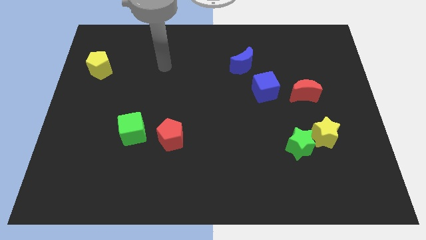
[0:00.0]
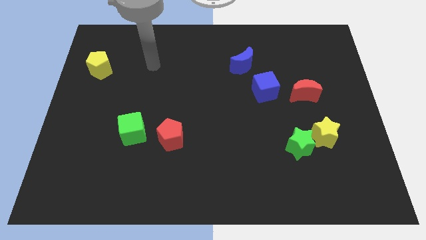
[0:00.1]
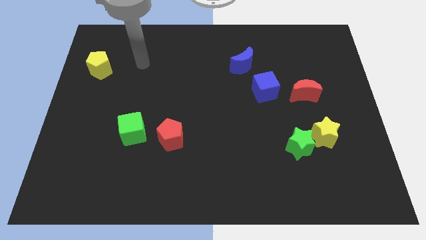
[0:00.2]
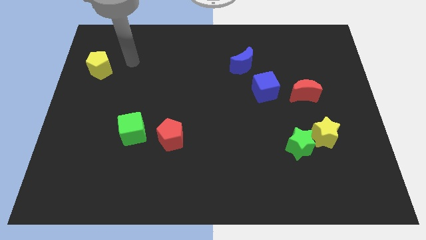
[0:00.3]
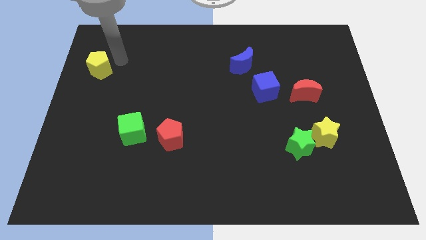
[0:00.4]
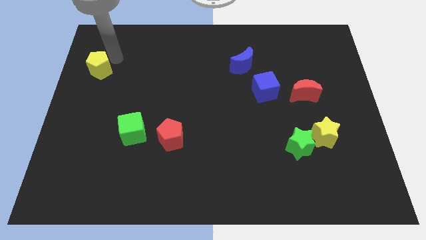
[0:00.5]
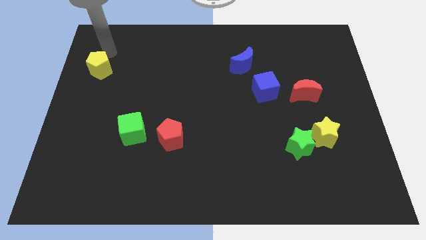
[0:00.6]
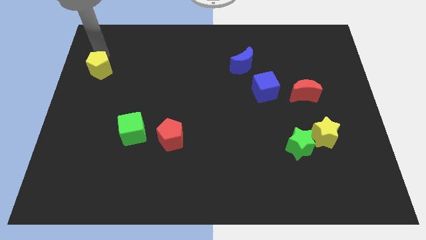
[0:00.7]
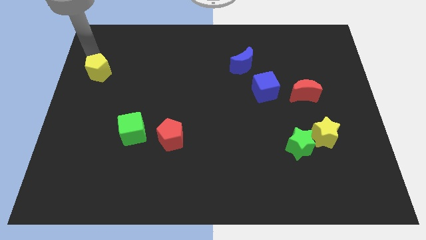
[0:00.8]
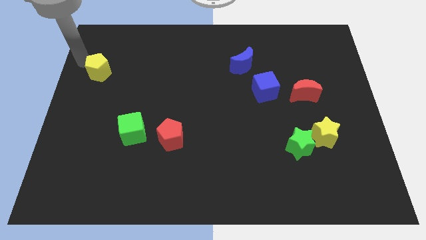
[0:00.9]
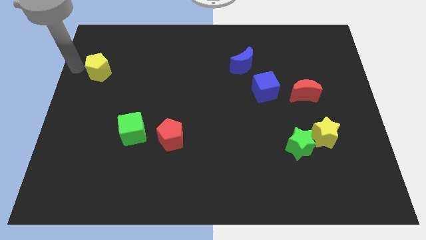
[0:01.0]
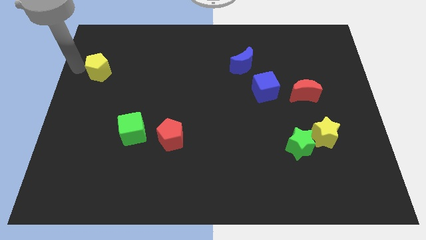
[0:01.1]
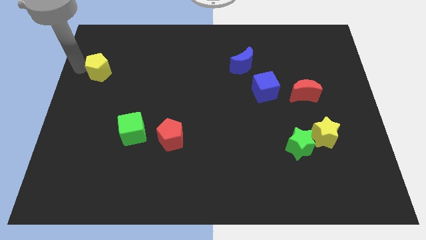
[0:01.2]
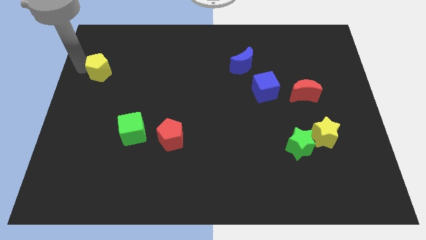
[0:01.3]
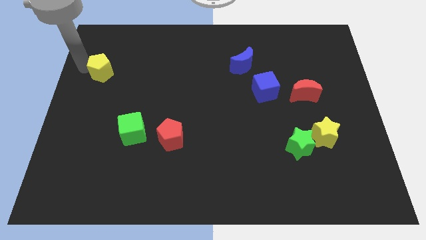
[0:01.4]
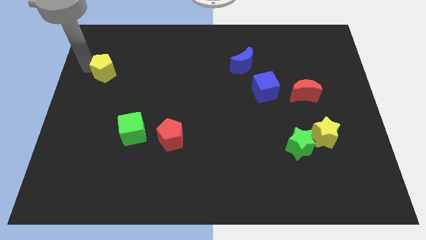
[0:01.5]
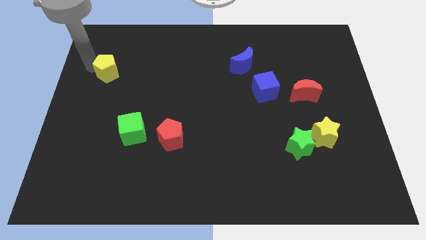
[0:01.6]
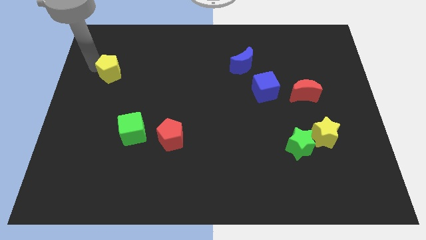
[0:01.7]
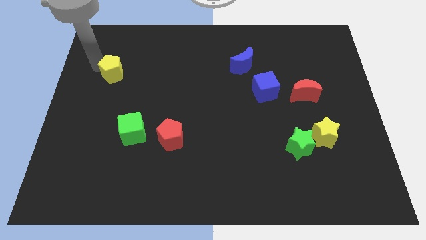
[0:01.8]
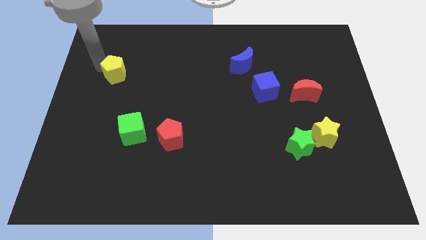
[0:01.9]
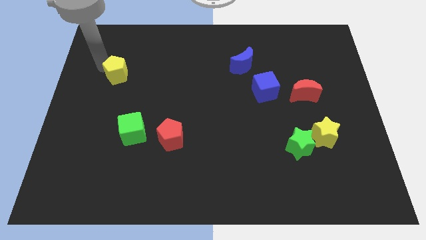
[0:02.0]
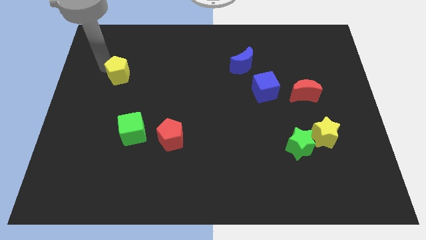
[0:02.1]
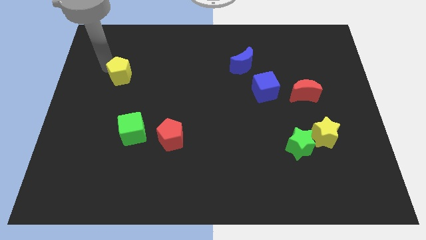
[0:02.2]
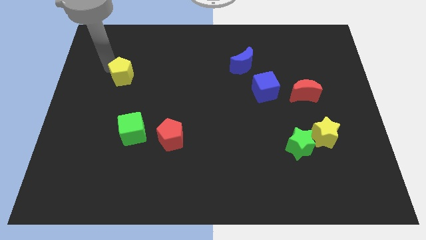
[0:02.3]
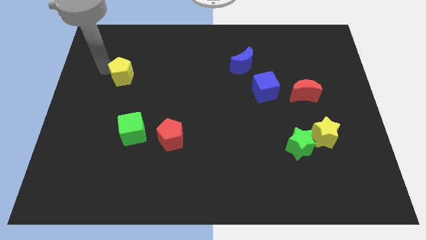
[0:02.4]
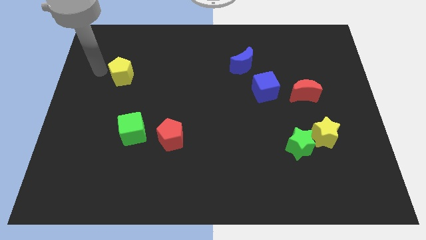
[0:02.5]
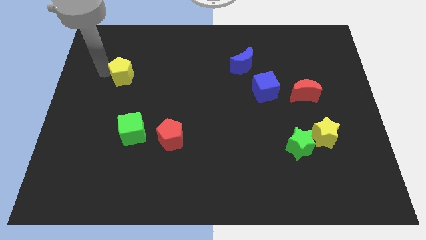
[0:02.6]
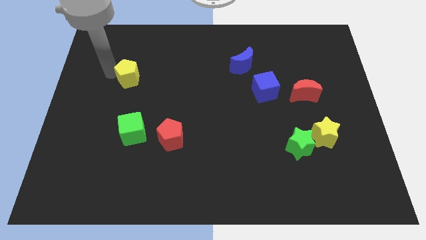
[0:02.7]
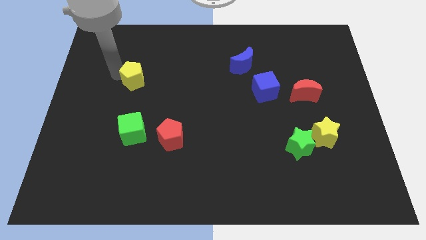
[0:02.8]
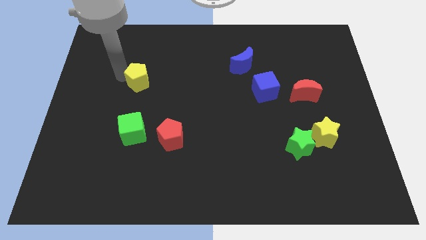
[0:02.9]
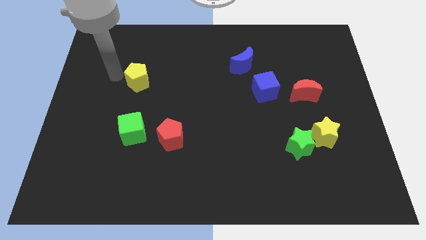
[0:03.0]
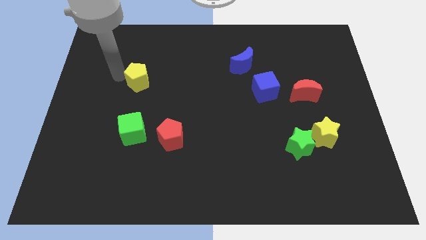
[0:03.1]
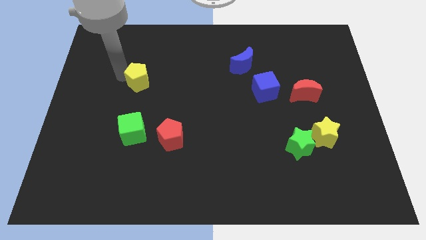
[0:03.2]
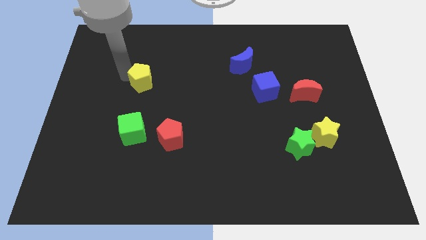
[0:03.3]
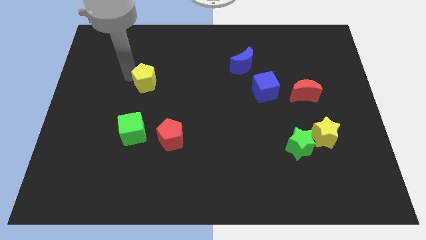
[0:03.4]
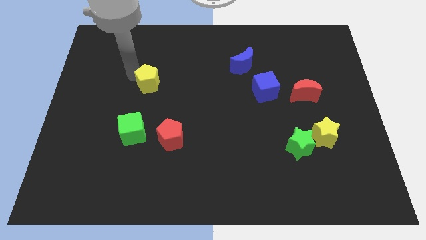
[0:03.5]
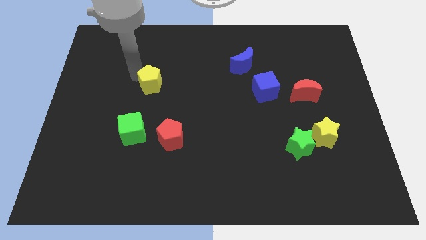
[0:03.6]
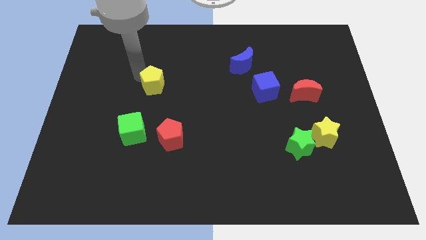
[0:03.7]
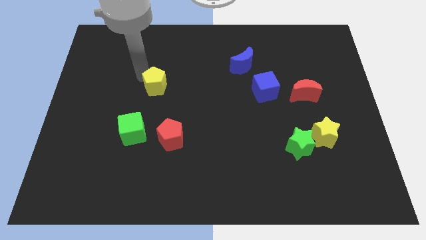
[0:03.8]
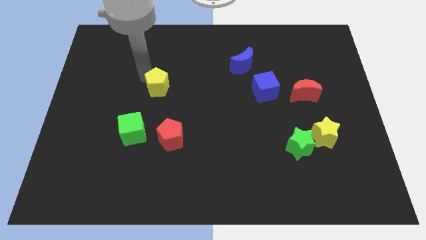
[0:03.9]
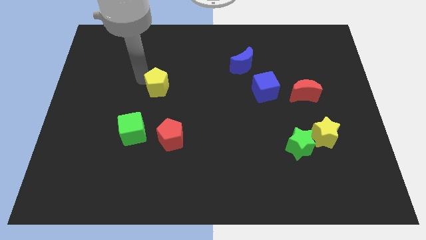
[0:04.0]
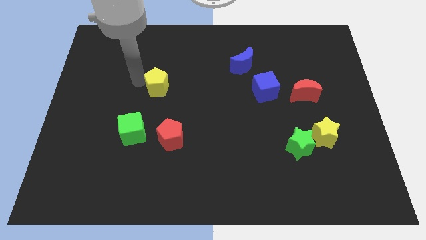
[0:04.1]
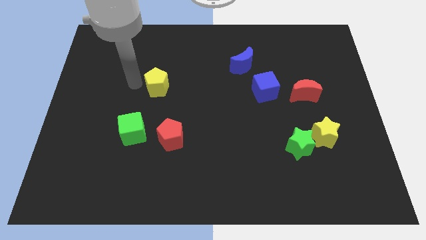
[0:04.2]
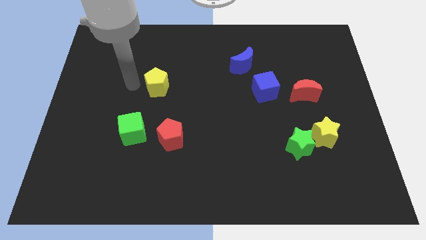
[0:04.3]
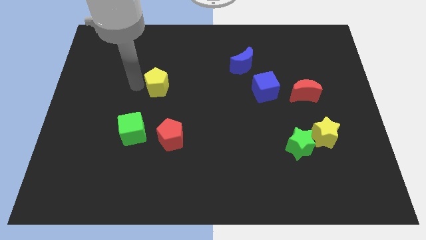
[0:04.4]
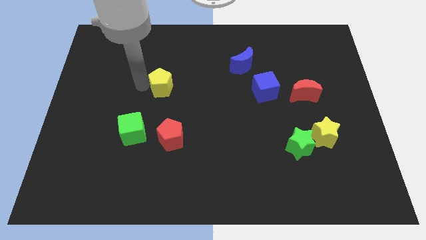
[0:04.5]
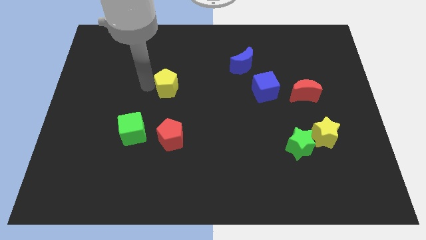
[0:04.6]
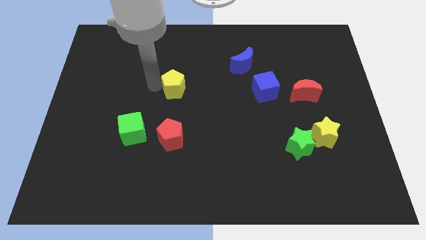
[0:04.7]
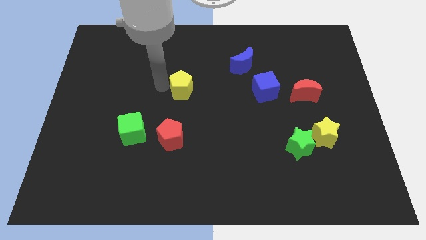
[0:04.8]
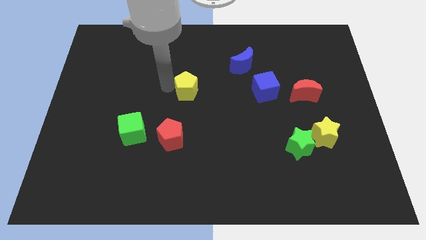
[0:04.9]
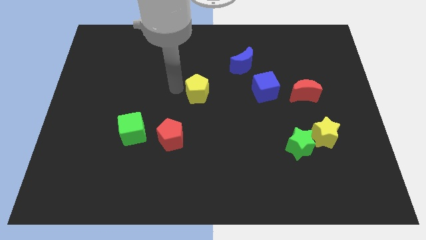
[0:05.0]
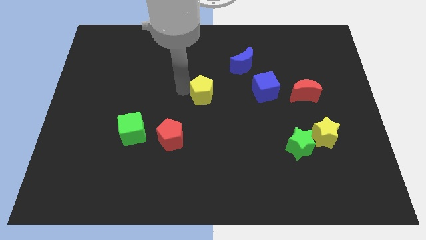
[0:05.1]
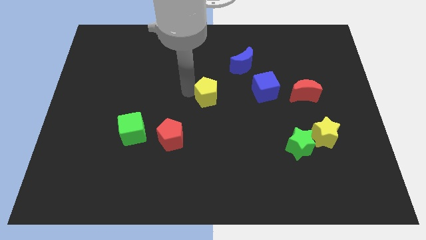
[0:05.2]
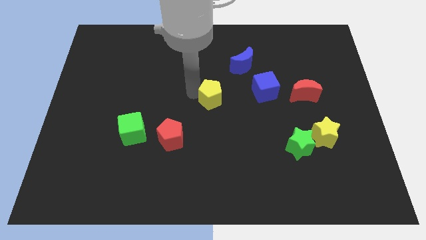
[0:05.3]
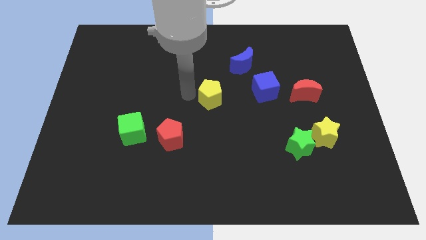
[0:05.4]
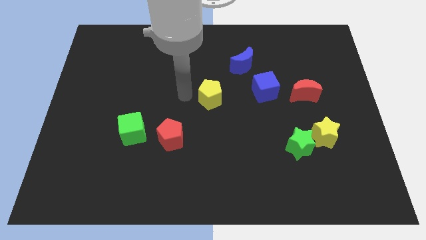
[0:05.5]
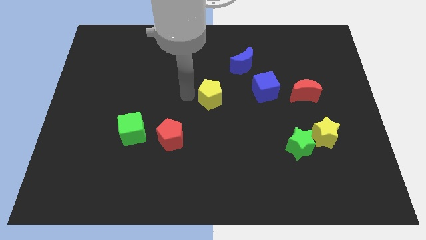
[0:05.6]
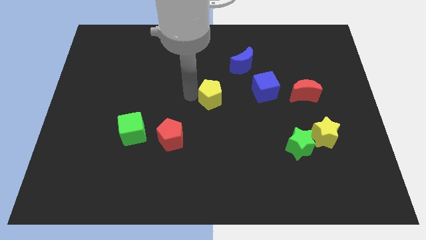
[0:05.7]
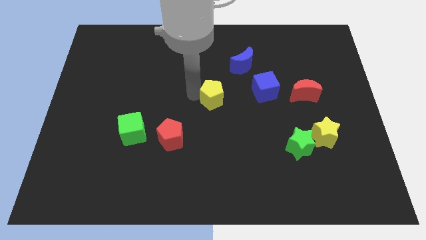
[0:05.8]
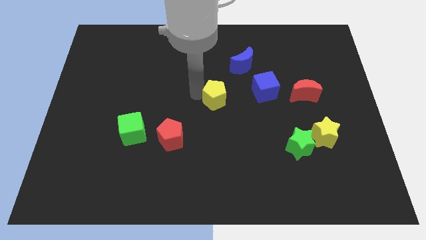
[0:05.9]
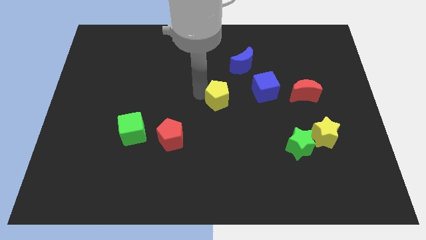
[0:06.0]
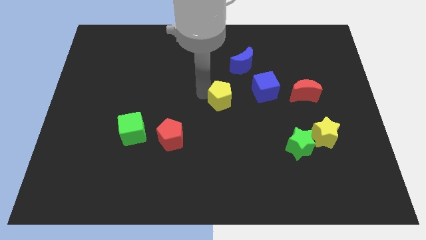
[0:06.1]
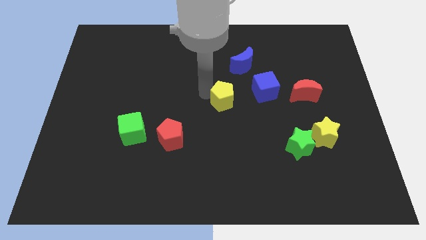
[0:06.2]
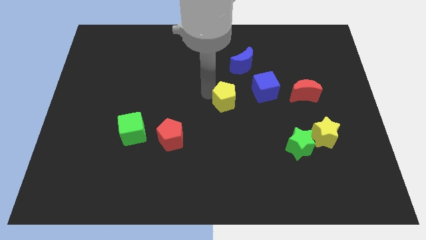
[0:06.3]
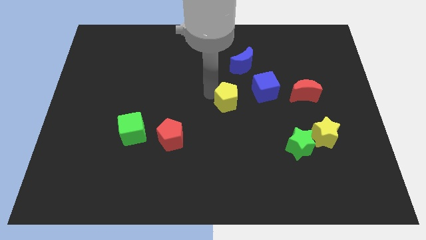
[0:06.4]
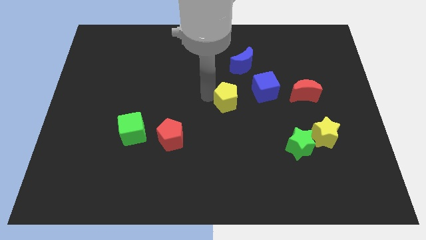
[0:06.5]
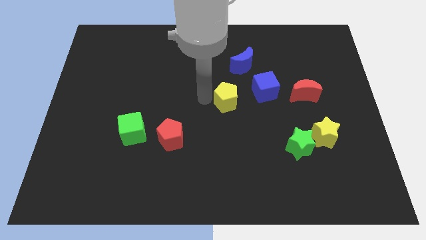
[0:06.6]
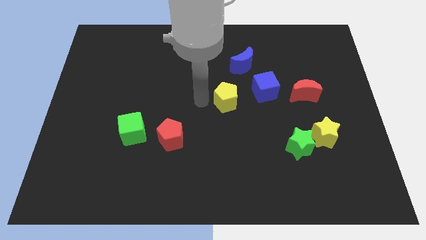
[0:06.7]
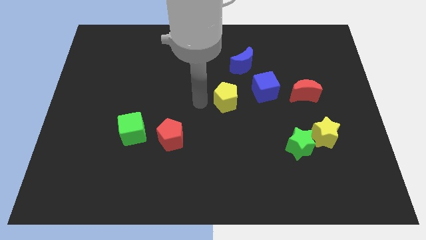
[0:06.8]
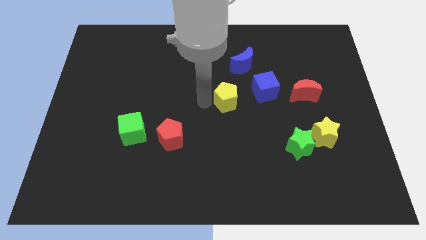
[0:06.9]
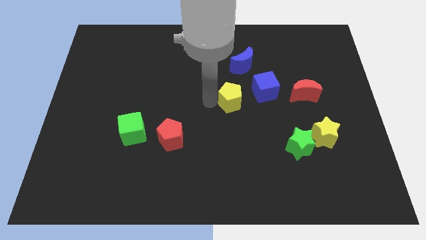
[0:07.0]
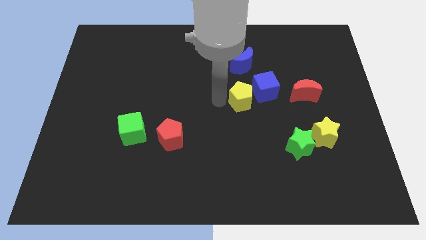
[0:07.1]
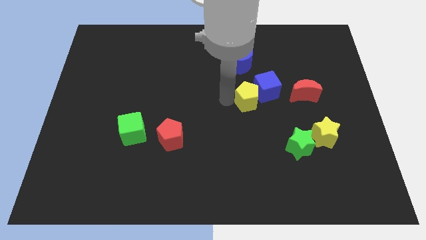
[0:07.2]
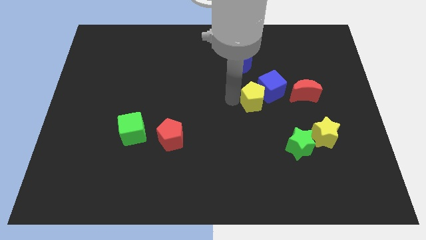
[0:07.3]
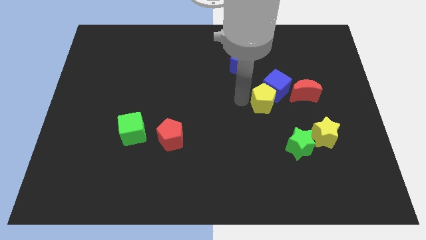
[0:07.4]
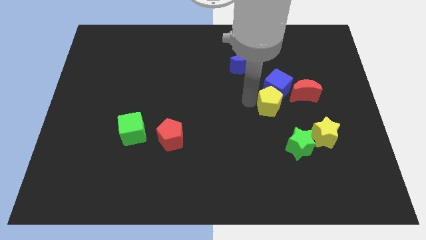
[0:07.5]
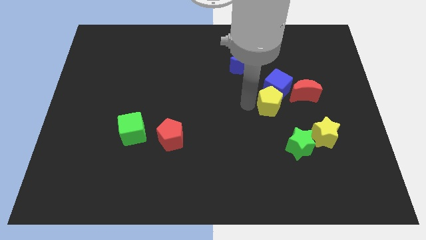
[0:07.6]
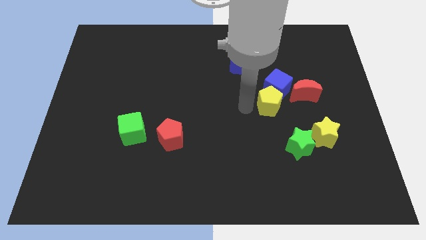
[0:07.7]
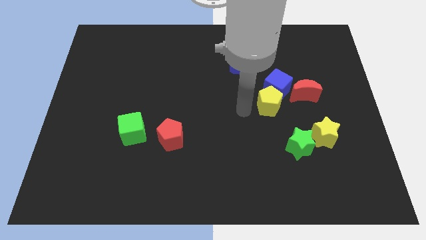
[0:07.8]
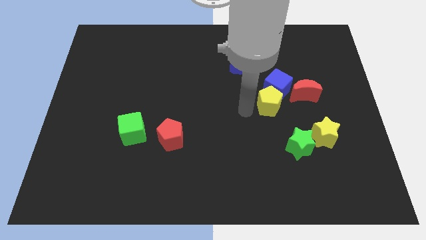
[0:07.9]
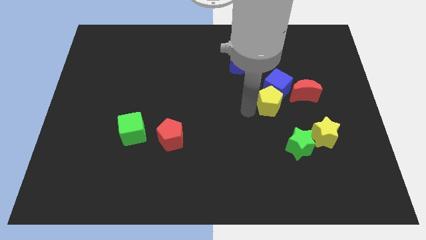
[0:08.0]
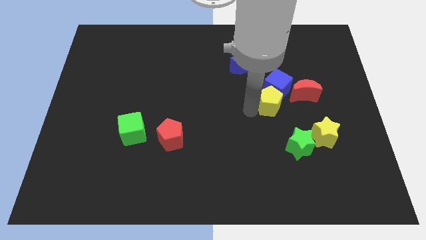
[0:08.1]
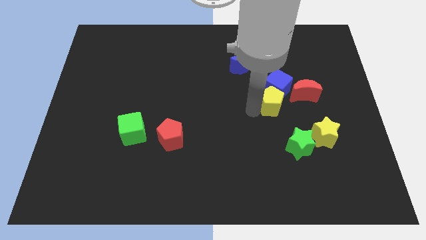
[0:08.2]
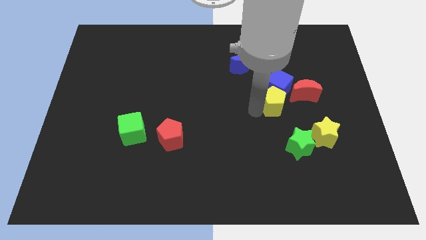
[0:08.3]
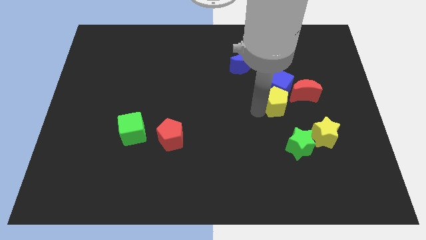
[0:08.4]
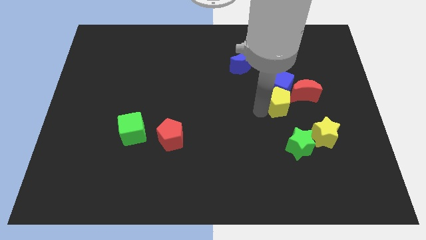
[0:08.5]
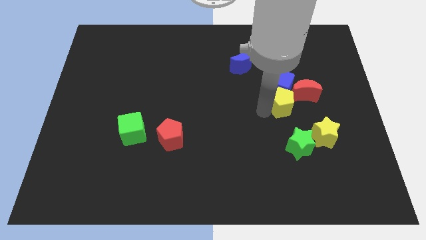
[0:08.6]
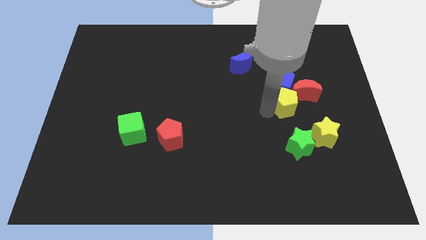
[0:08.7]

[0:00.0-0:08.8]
push the yellow pentagon close to the red moon
